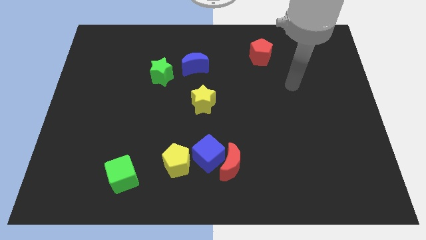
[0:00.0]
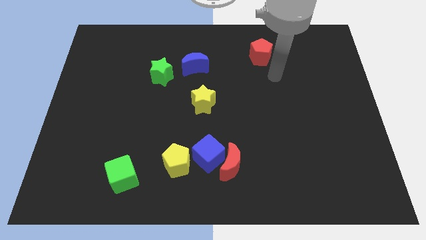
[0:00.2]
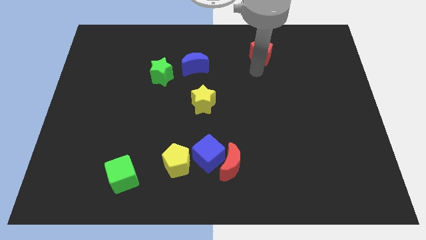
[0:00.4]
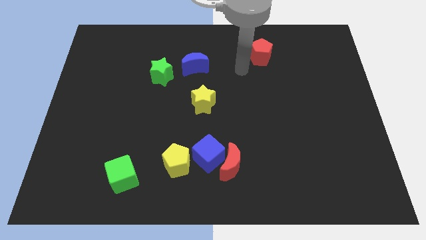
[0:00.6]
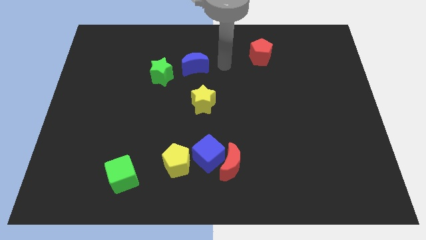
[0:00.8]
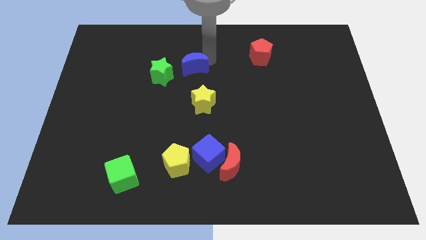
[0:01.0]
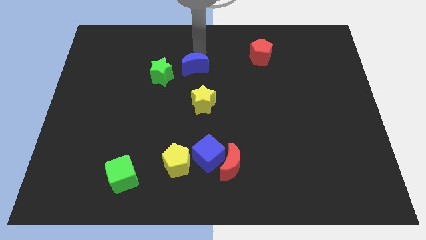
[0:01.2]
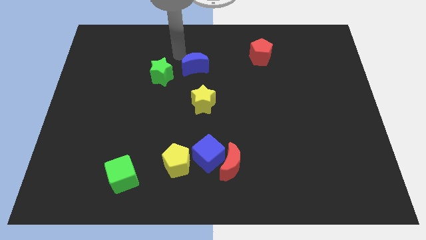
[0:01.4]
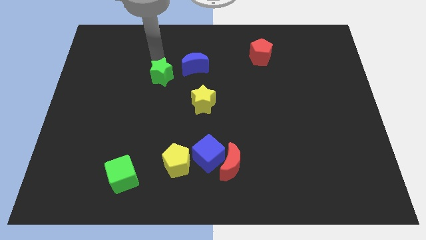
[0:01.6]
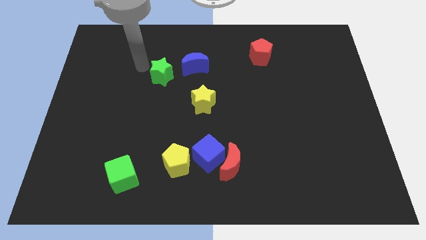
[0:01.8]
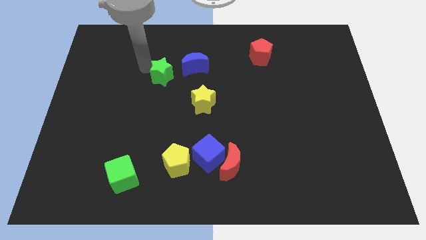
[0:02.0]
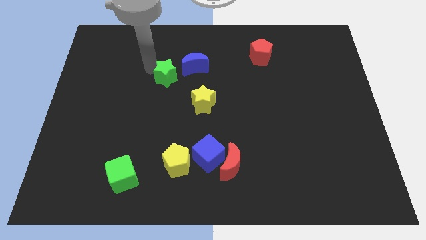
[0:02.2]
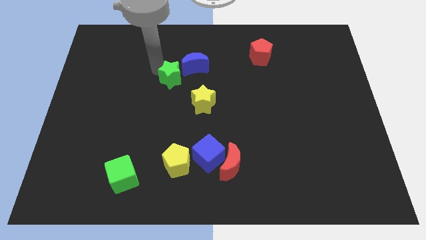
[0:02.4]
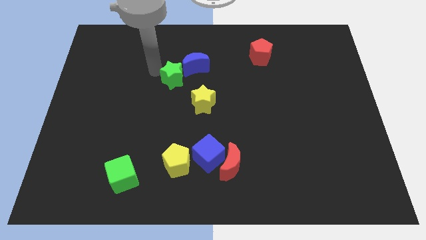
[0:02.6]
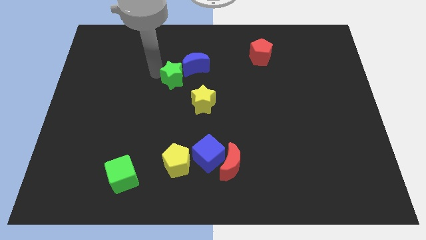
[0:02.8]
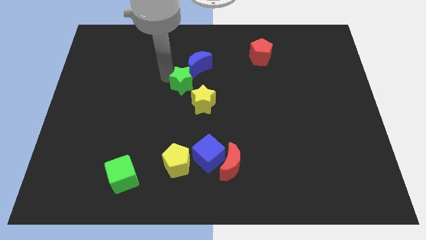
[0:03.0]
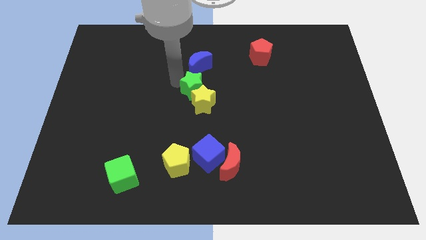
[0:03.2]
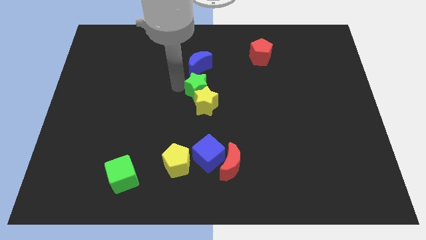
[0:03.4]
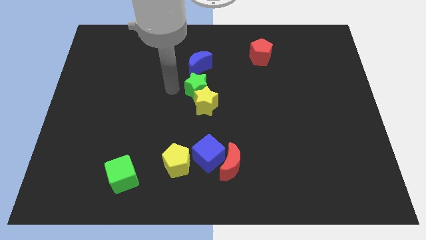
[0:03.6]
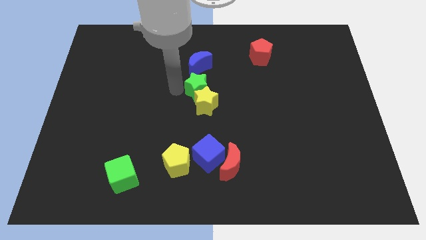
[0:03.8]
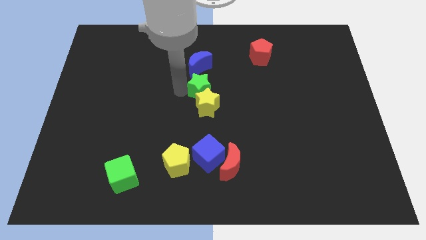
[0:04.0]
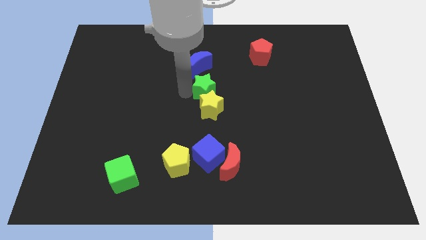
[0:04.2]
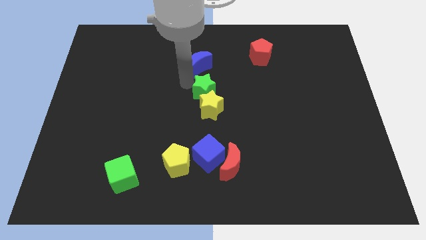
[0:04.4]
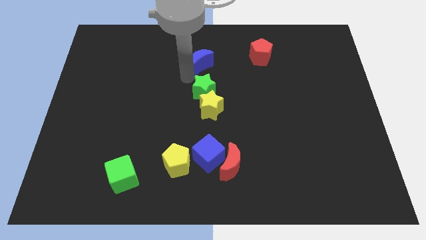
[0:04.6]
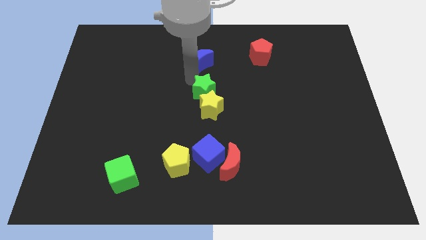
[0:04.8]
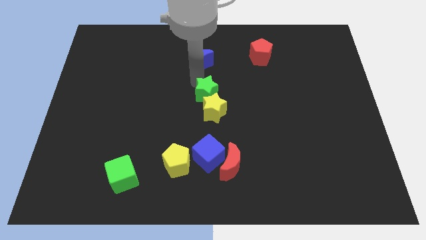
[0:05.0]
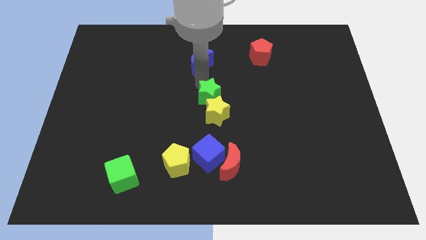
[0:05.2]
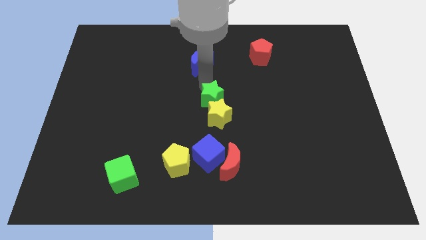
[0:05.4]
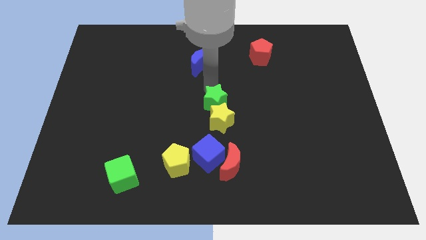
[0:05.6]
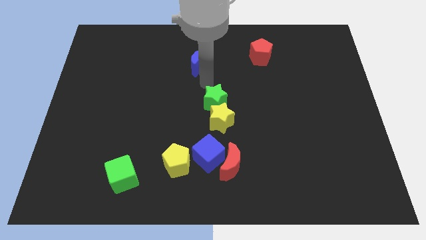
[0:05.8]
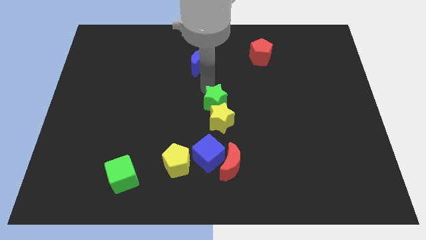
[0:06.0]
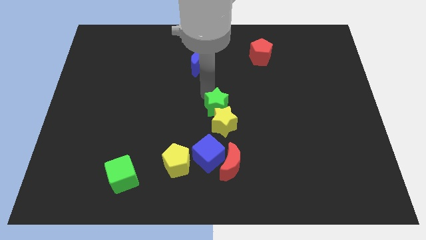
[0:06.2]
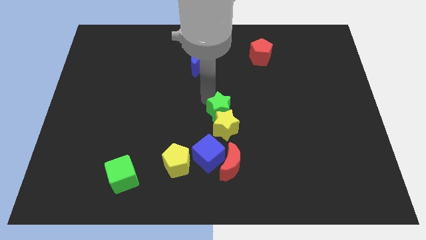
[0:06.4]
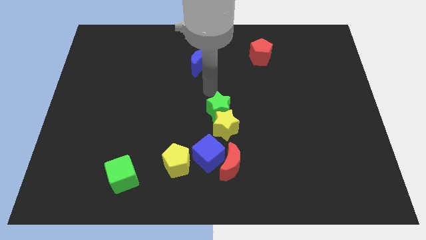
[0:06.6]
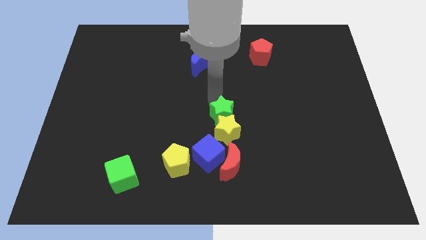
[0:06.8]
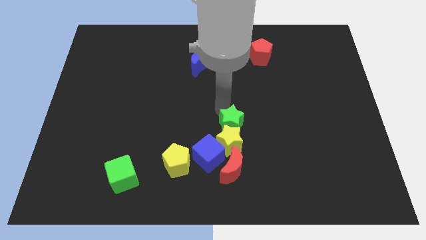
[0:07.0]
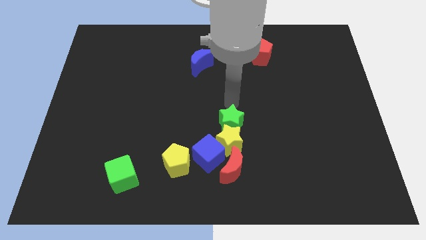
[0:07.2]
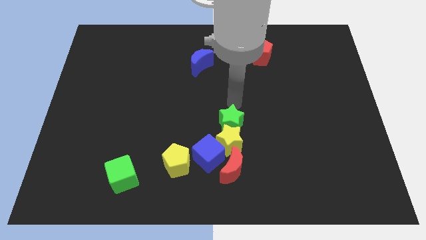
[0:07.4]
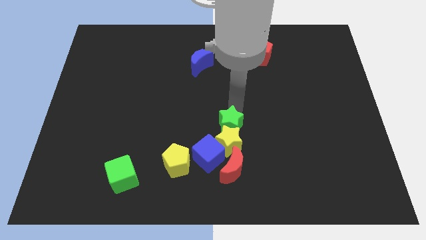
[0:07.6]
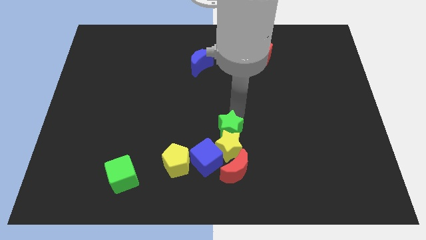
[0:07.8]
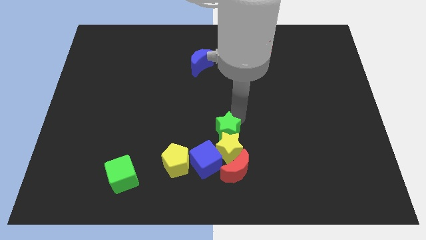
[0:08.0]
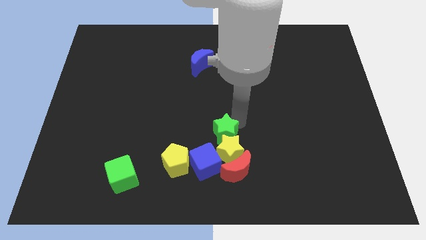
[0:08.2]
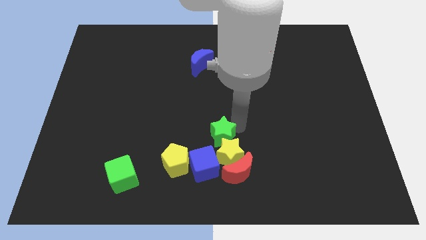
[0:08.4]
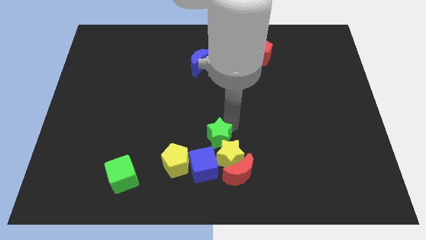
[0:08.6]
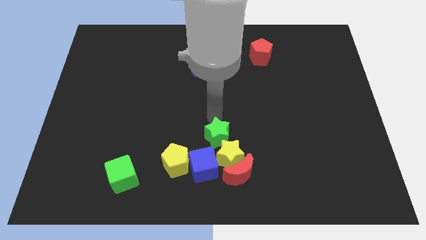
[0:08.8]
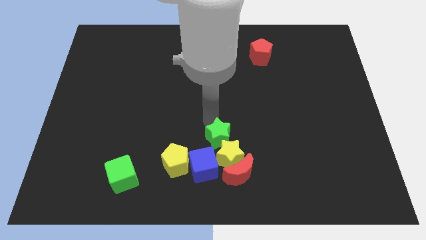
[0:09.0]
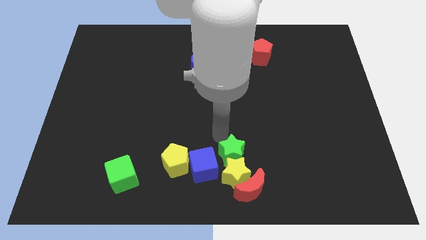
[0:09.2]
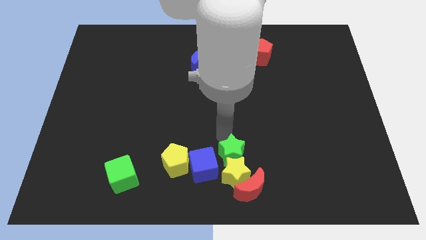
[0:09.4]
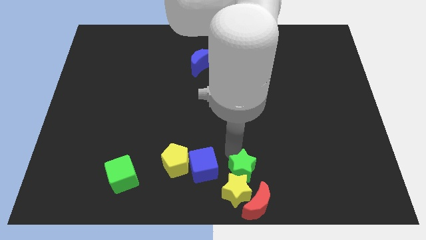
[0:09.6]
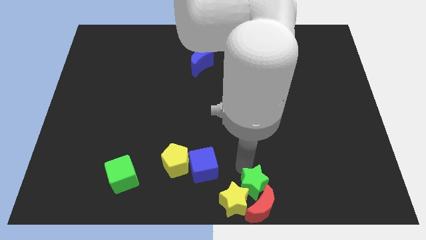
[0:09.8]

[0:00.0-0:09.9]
slide the green star next to the red moon

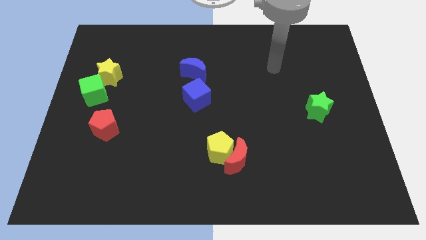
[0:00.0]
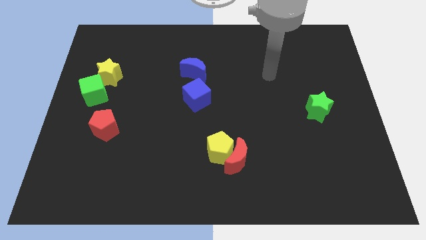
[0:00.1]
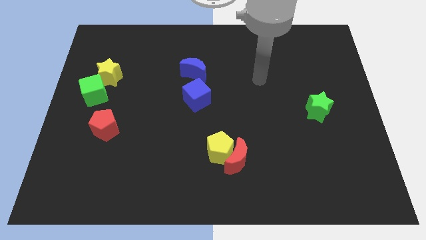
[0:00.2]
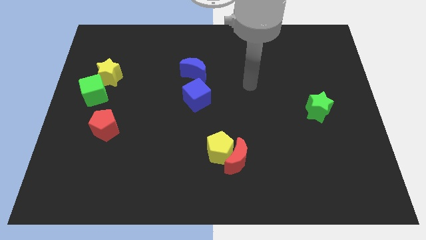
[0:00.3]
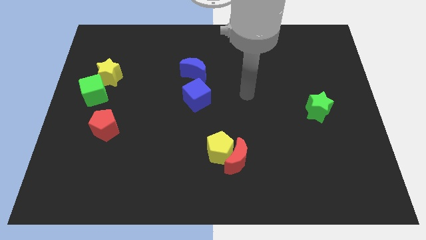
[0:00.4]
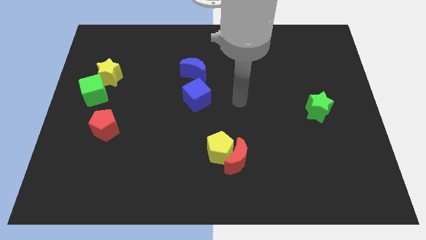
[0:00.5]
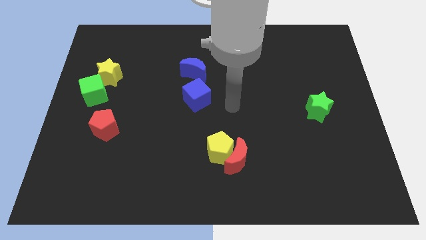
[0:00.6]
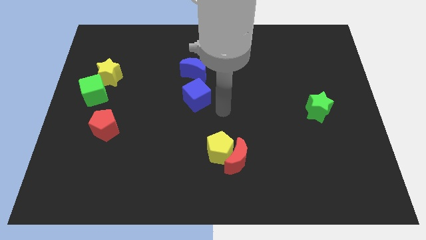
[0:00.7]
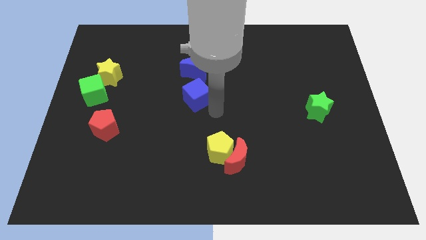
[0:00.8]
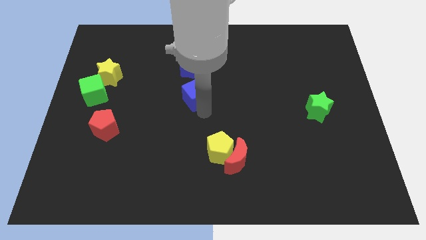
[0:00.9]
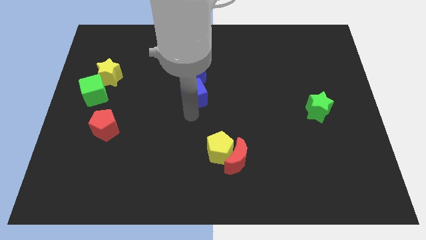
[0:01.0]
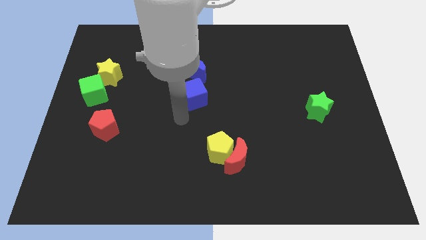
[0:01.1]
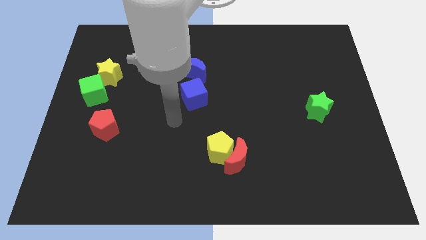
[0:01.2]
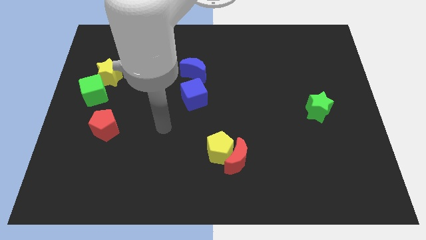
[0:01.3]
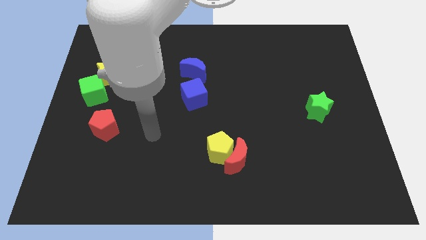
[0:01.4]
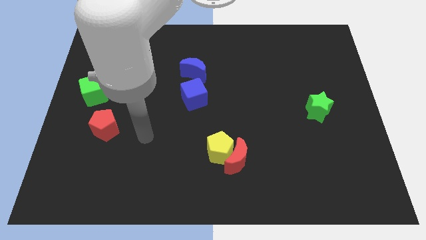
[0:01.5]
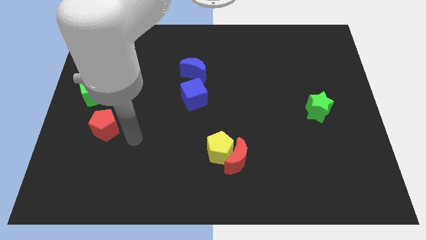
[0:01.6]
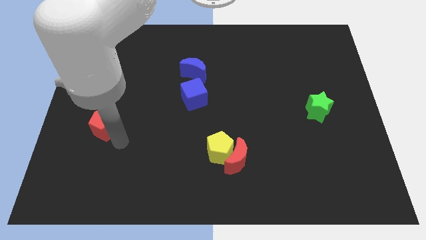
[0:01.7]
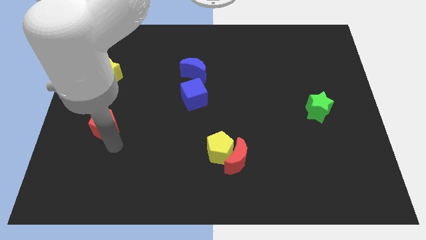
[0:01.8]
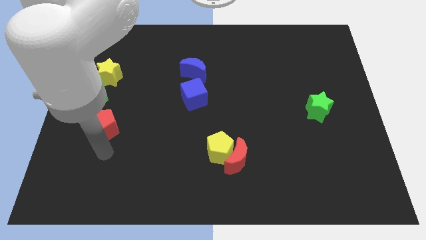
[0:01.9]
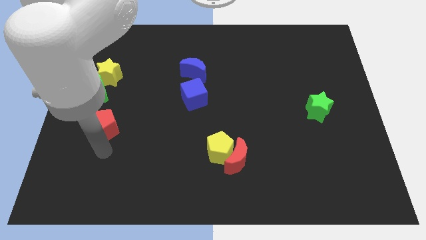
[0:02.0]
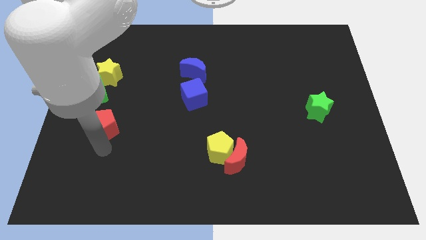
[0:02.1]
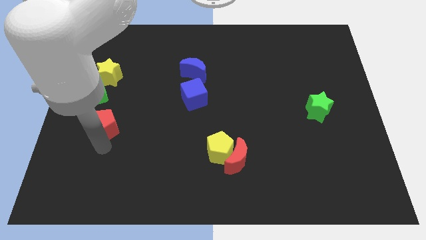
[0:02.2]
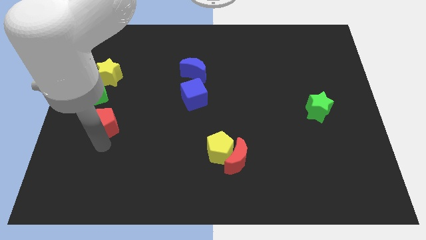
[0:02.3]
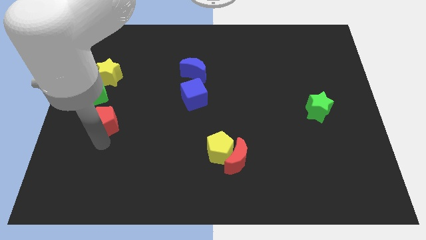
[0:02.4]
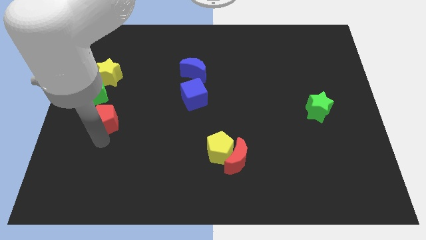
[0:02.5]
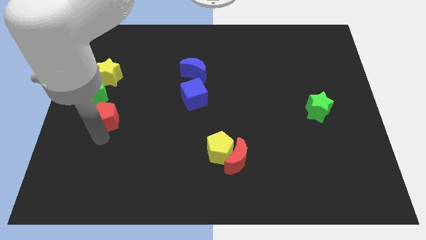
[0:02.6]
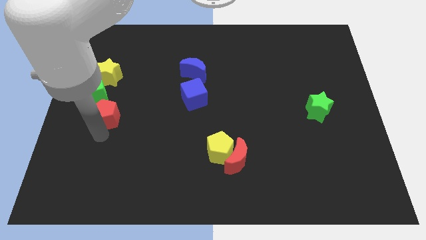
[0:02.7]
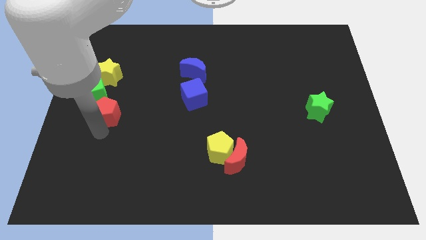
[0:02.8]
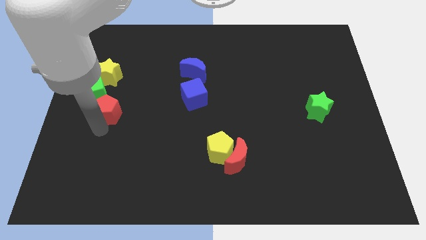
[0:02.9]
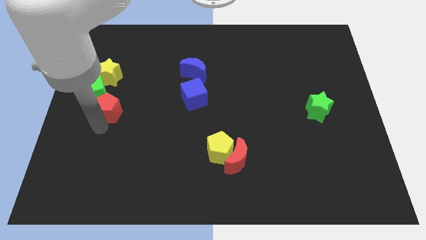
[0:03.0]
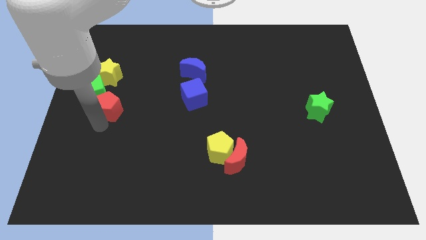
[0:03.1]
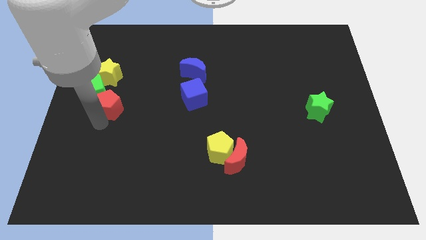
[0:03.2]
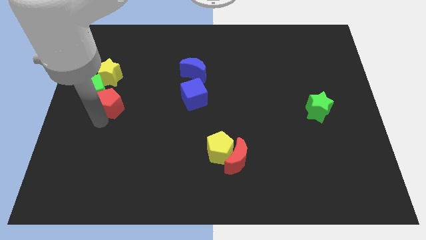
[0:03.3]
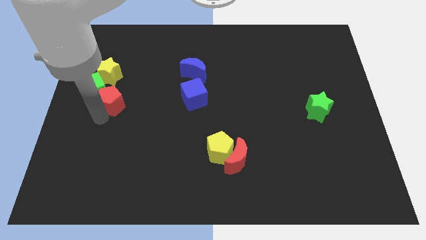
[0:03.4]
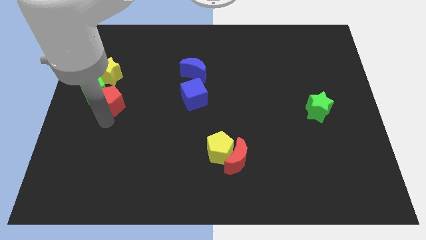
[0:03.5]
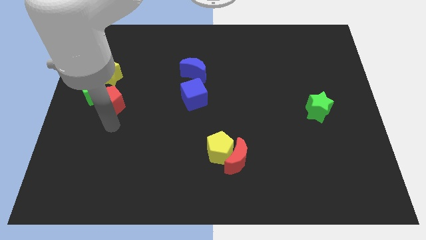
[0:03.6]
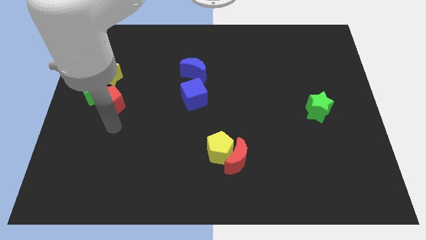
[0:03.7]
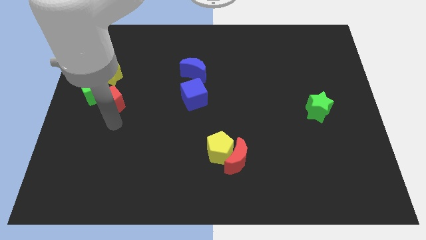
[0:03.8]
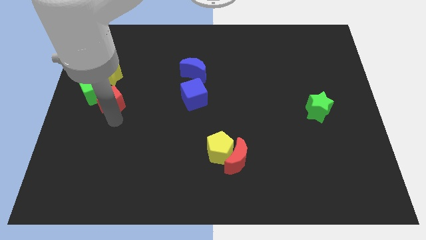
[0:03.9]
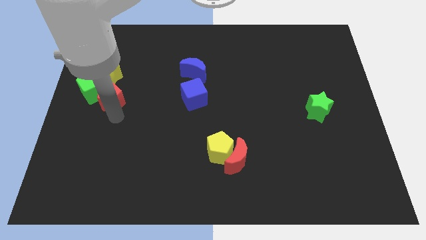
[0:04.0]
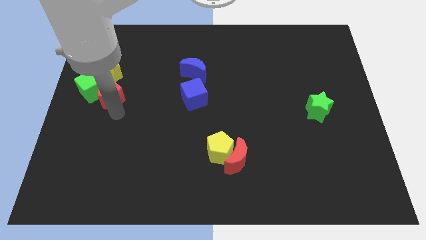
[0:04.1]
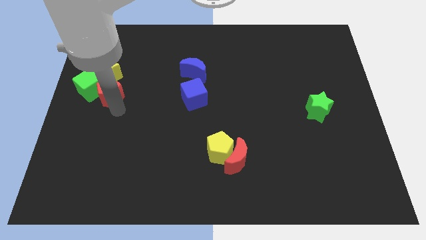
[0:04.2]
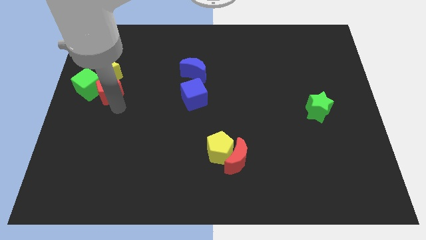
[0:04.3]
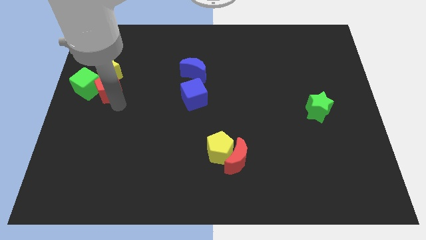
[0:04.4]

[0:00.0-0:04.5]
move the red pentagon next to the yellow star
